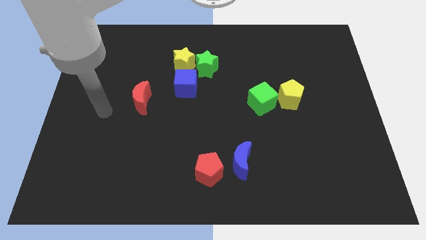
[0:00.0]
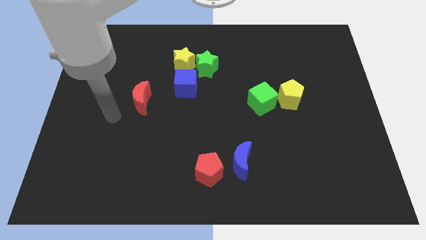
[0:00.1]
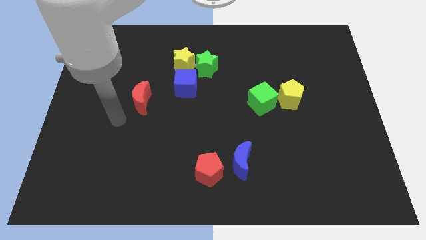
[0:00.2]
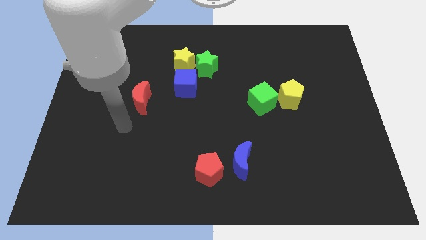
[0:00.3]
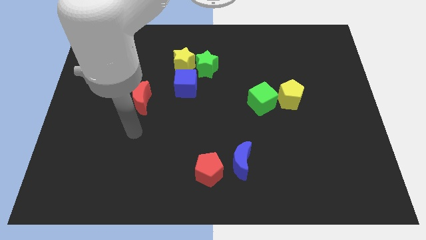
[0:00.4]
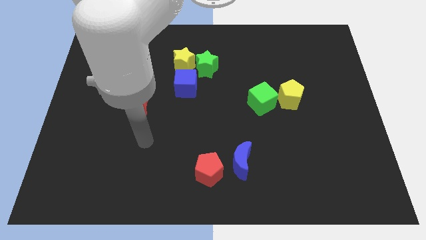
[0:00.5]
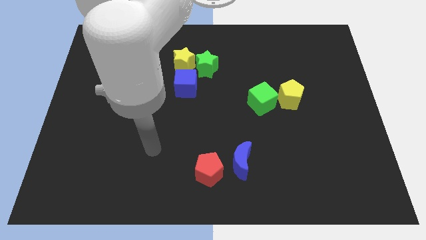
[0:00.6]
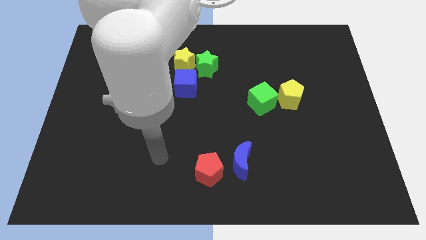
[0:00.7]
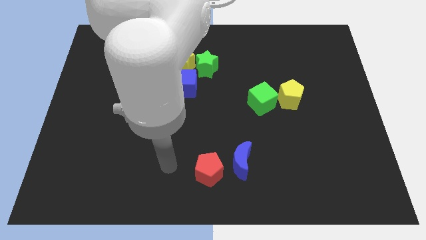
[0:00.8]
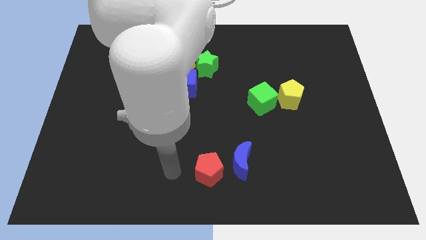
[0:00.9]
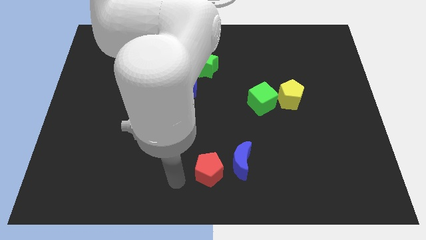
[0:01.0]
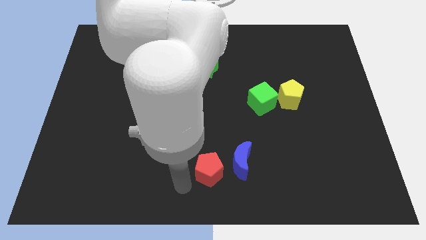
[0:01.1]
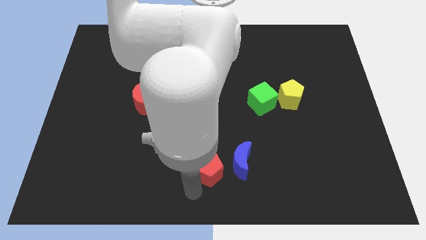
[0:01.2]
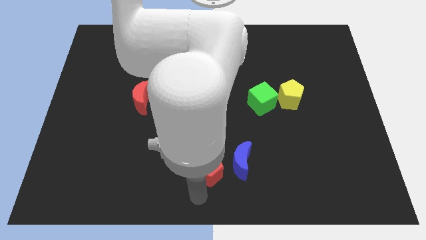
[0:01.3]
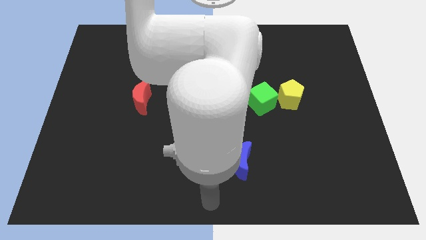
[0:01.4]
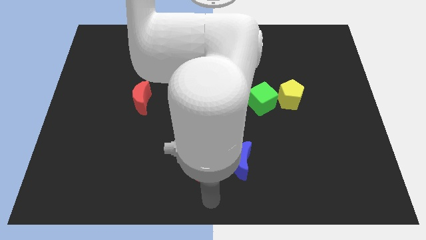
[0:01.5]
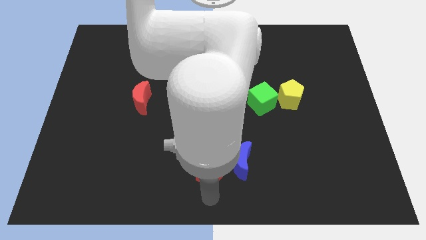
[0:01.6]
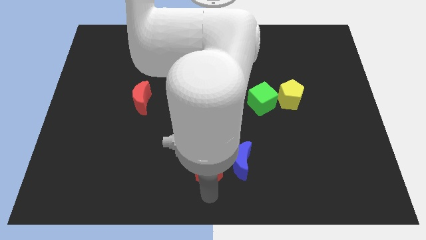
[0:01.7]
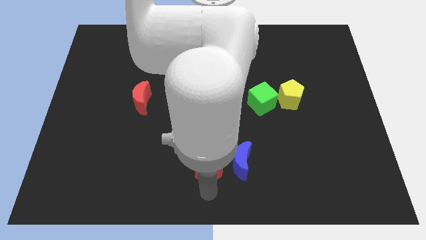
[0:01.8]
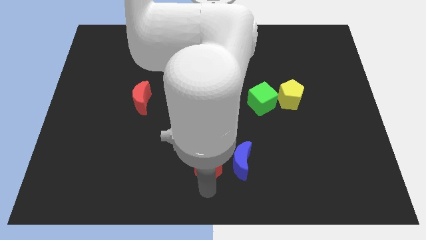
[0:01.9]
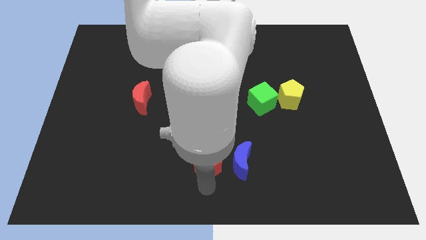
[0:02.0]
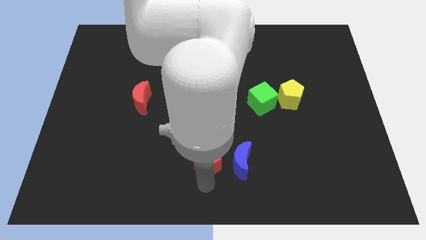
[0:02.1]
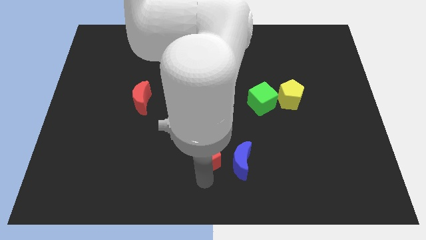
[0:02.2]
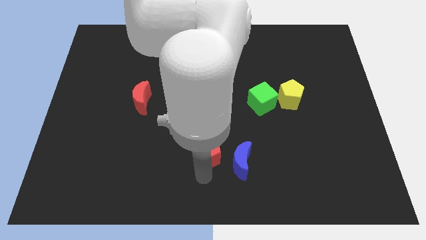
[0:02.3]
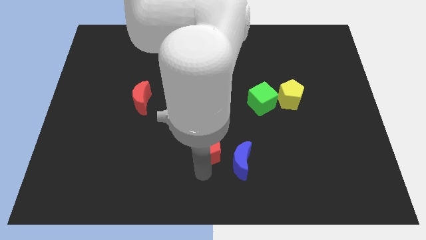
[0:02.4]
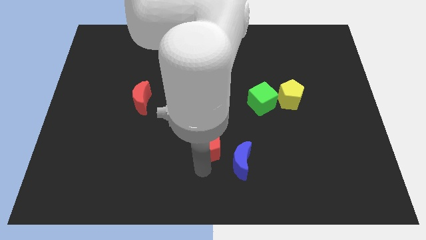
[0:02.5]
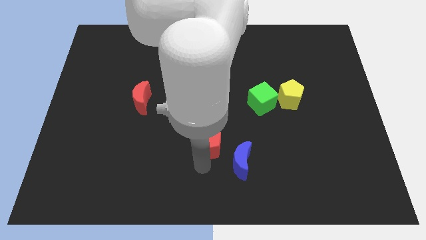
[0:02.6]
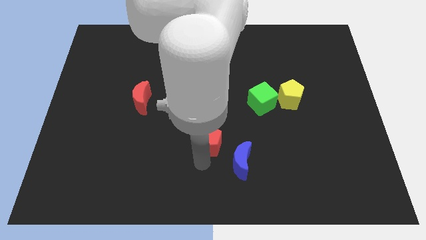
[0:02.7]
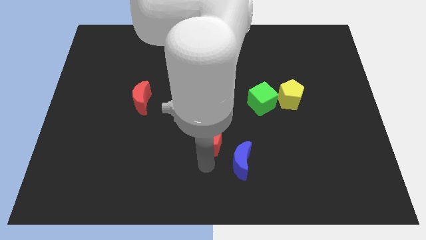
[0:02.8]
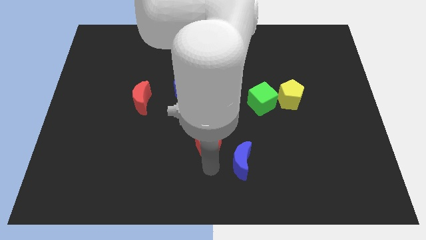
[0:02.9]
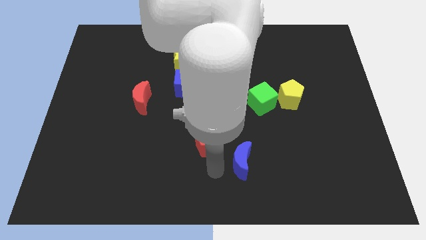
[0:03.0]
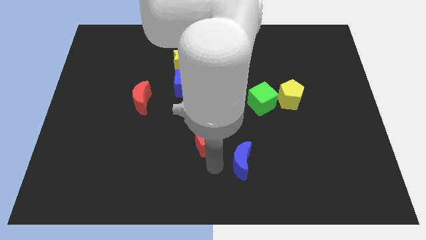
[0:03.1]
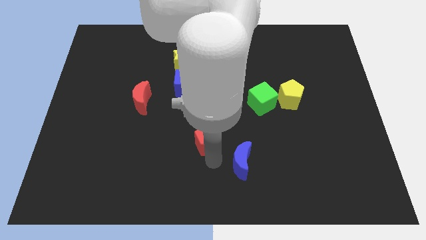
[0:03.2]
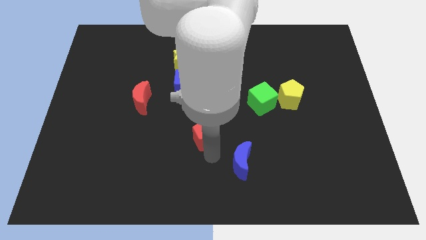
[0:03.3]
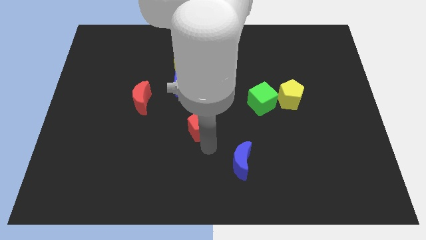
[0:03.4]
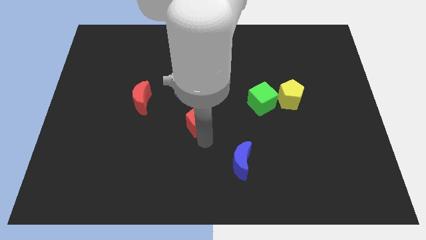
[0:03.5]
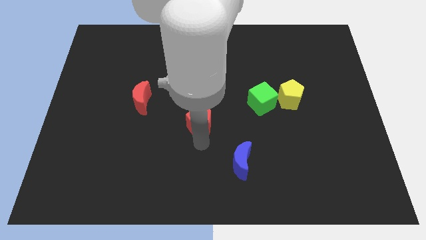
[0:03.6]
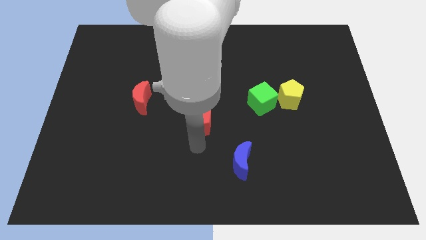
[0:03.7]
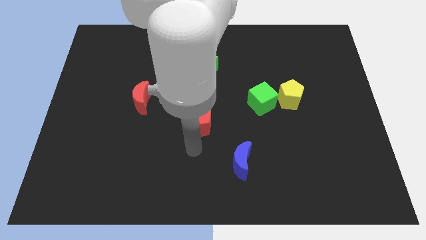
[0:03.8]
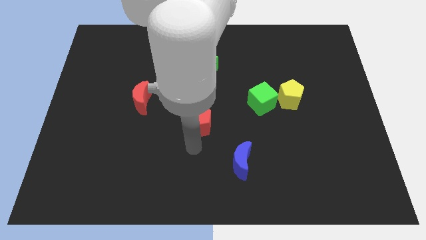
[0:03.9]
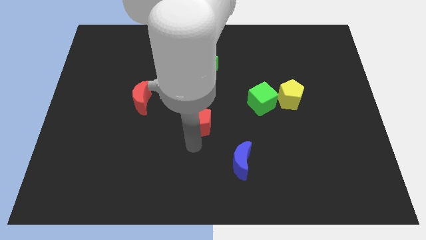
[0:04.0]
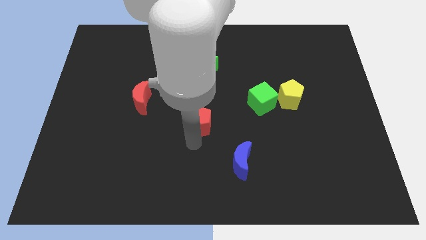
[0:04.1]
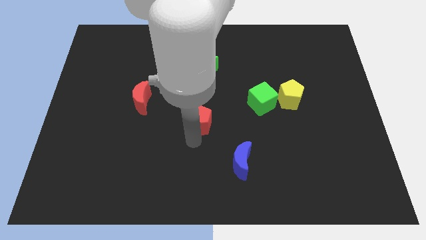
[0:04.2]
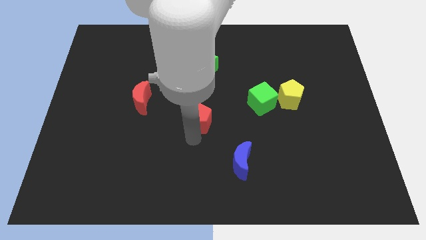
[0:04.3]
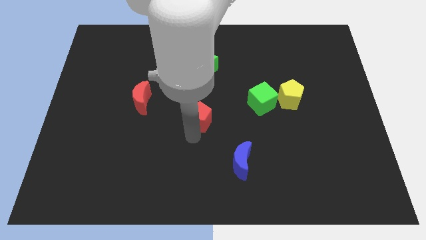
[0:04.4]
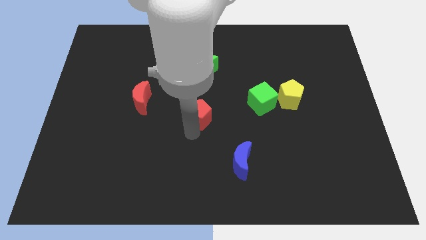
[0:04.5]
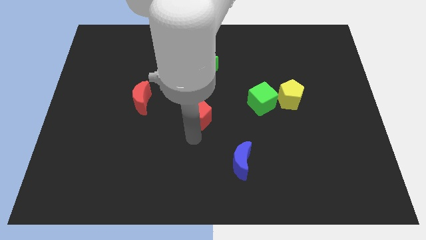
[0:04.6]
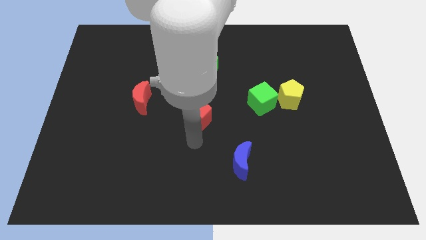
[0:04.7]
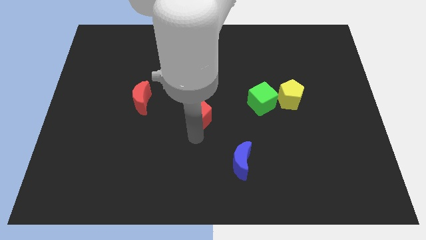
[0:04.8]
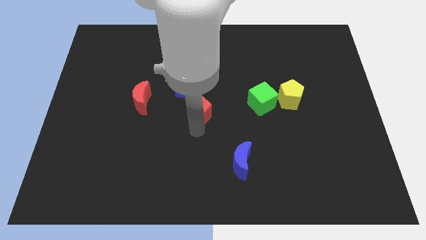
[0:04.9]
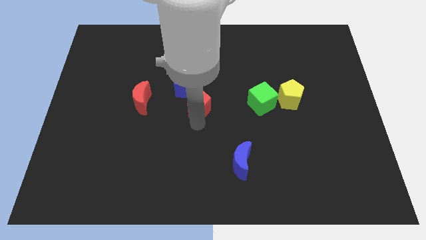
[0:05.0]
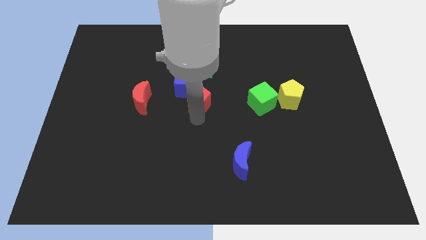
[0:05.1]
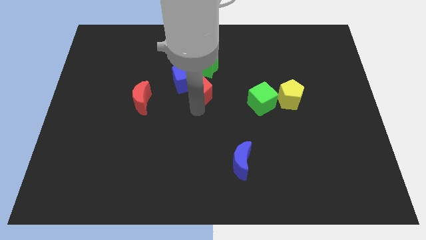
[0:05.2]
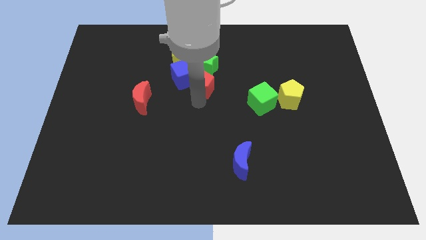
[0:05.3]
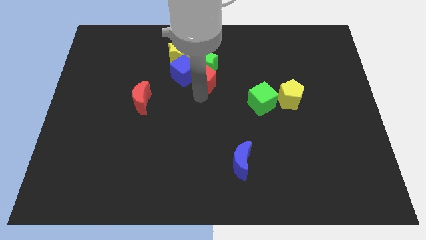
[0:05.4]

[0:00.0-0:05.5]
put the red pentagon next to the green star

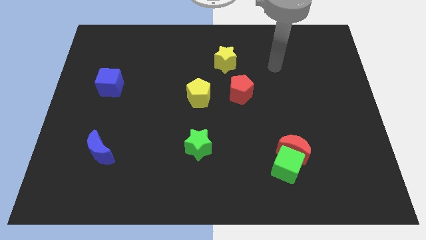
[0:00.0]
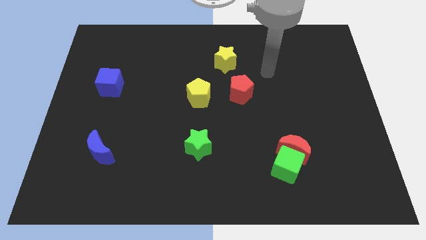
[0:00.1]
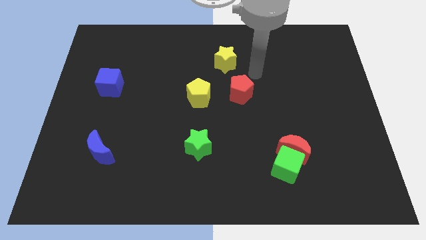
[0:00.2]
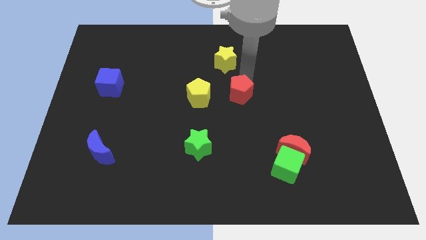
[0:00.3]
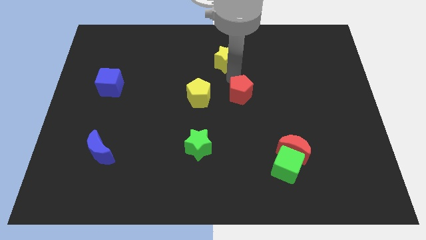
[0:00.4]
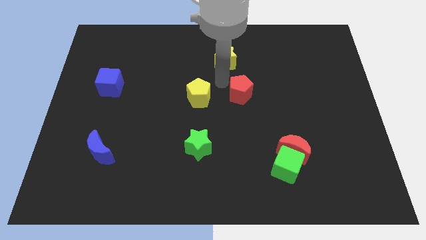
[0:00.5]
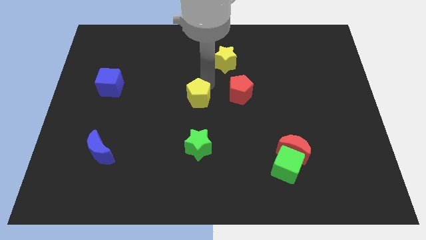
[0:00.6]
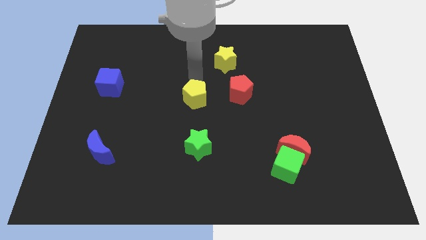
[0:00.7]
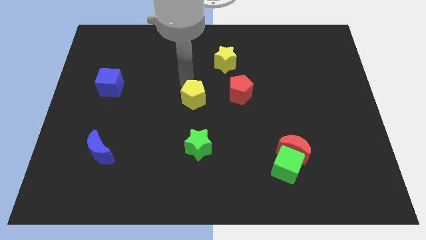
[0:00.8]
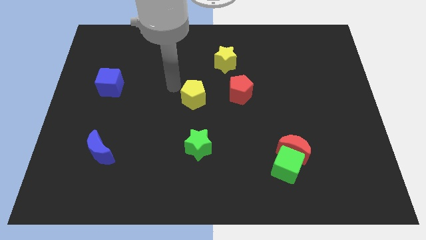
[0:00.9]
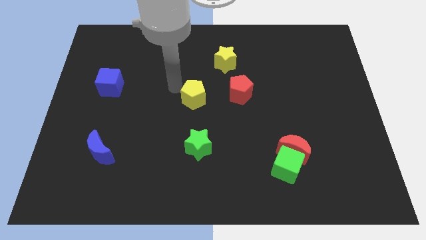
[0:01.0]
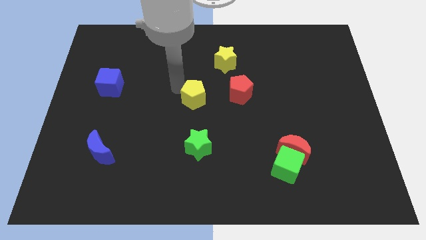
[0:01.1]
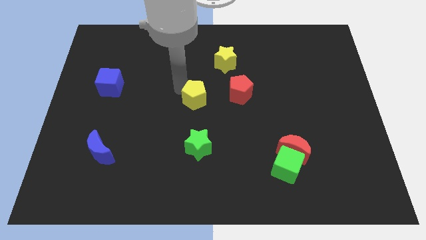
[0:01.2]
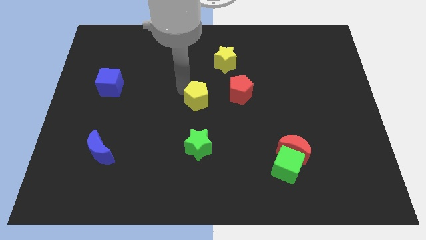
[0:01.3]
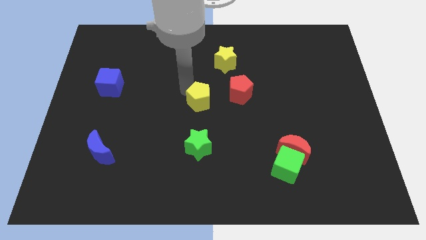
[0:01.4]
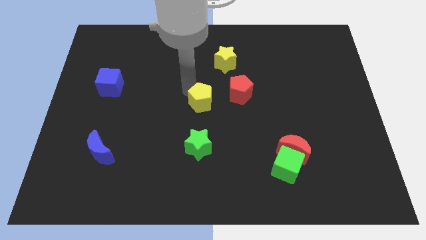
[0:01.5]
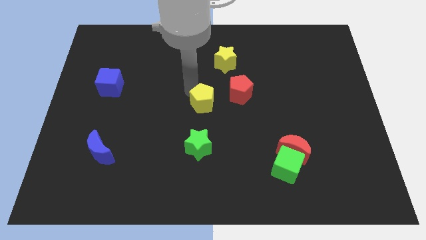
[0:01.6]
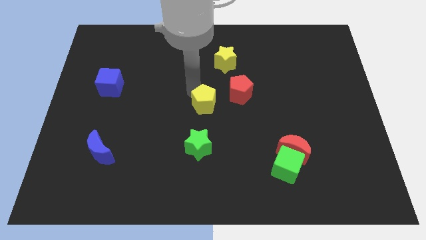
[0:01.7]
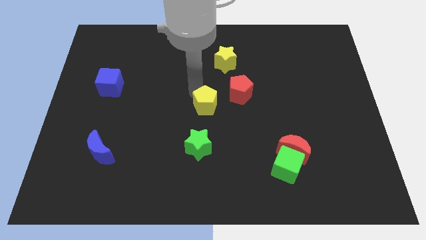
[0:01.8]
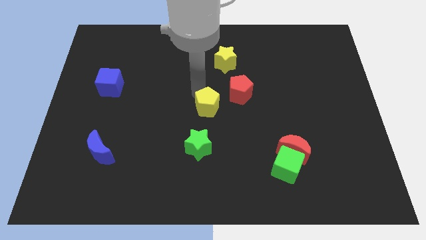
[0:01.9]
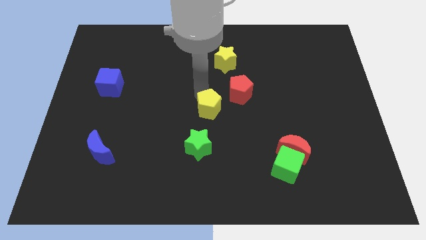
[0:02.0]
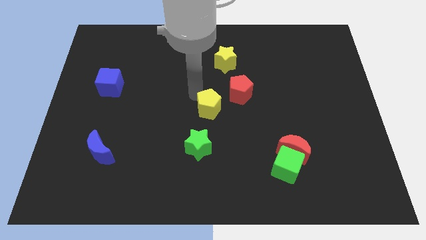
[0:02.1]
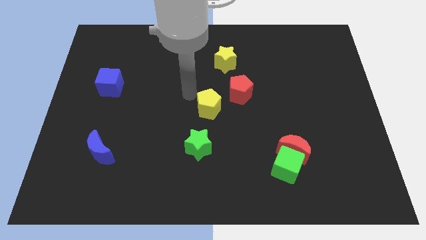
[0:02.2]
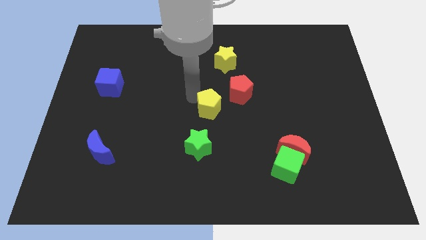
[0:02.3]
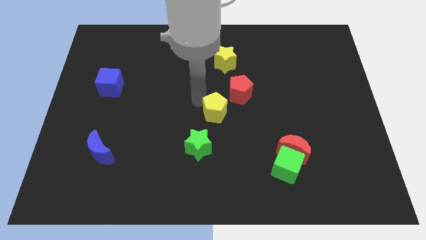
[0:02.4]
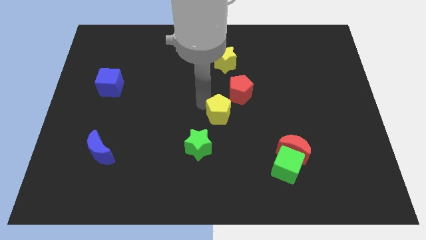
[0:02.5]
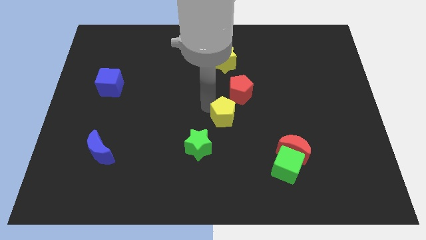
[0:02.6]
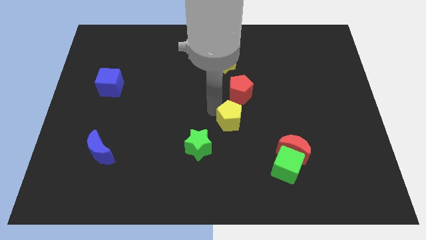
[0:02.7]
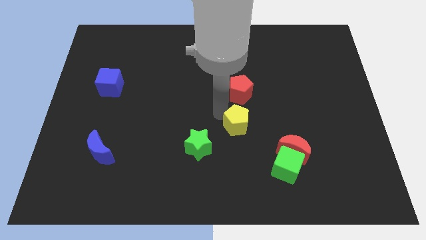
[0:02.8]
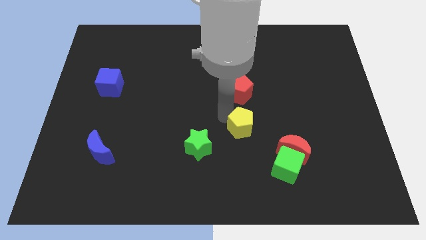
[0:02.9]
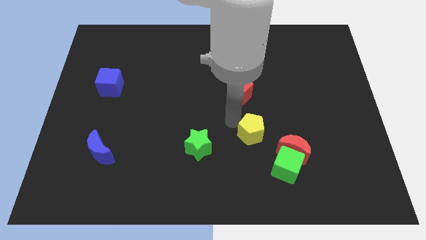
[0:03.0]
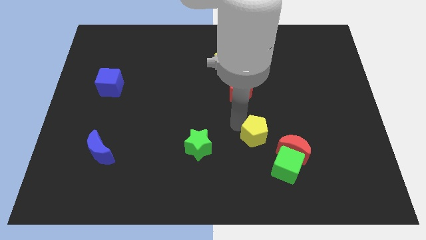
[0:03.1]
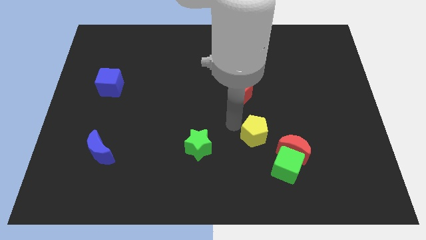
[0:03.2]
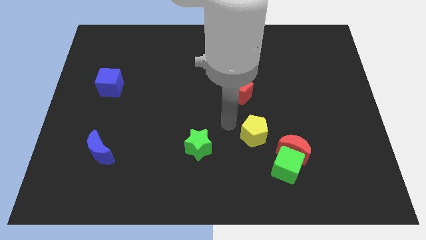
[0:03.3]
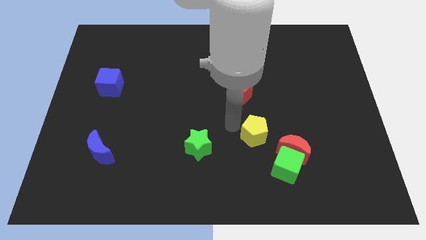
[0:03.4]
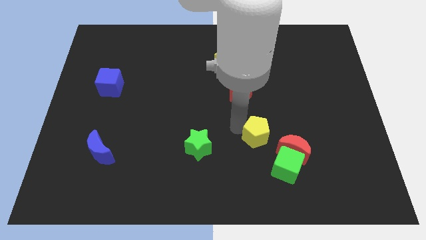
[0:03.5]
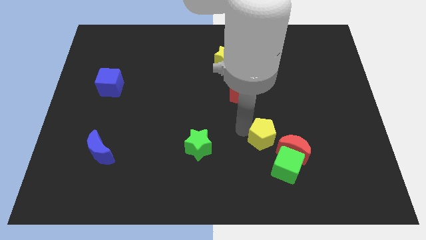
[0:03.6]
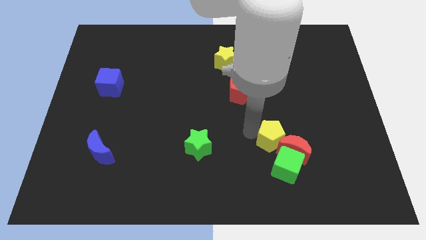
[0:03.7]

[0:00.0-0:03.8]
put the yellow pentagon close to the red moon
